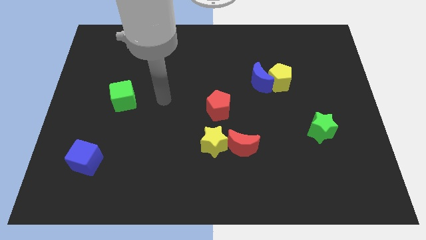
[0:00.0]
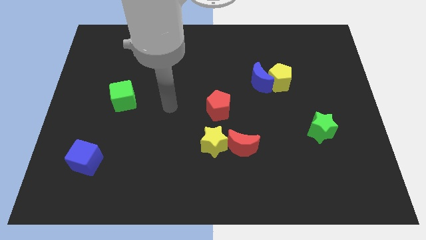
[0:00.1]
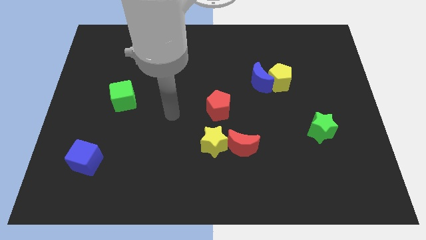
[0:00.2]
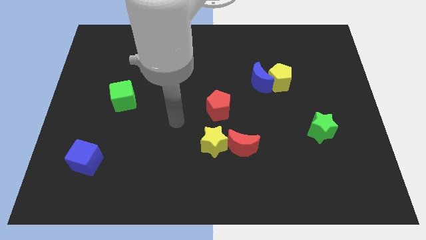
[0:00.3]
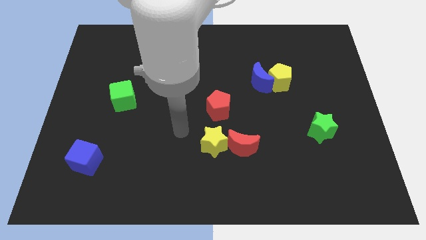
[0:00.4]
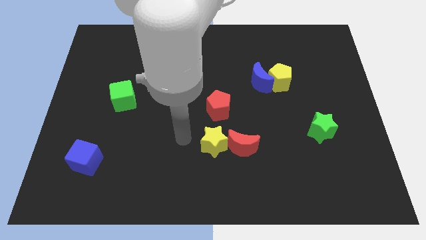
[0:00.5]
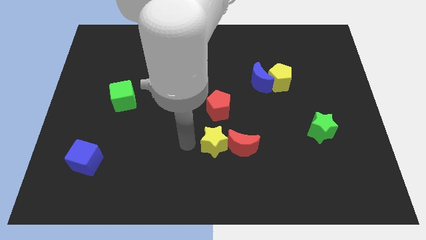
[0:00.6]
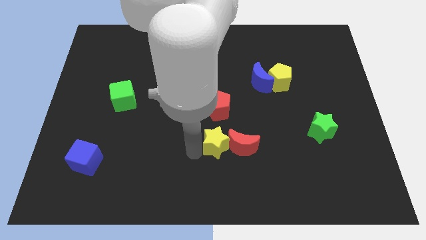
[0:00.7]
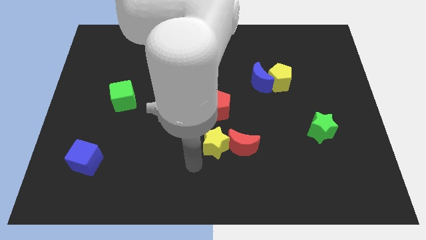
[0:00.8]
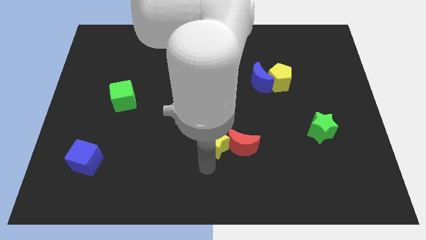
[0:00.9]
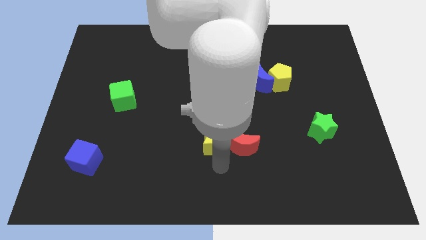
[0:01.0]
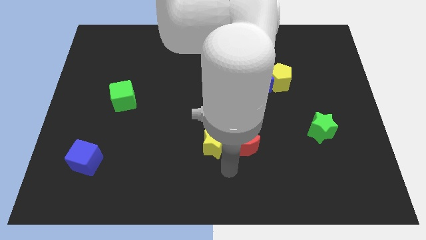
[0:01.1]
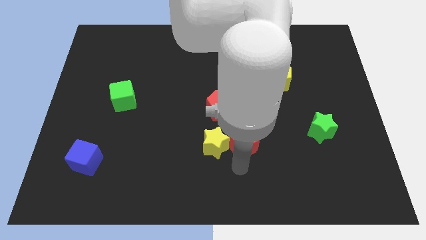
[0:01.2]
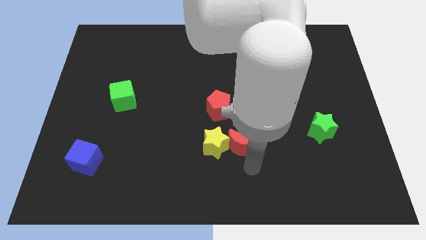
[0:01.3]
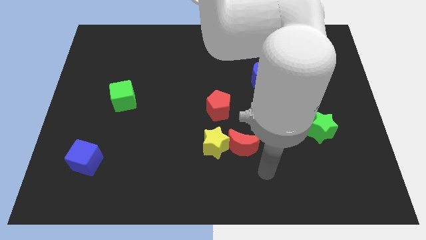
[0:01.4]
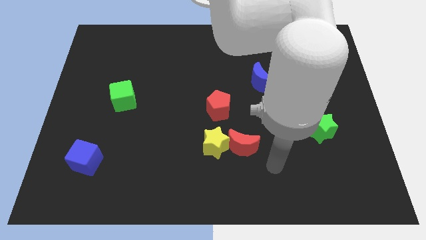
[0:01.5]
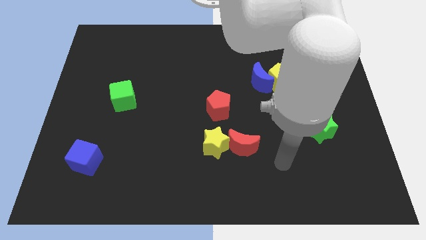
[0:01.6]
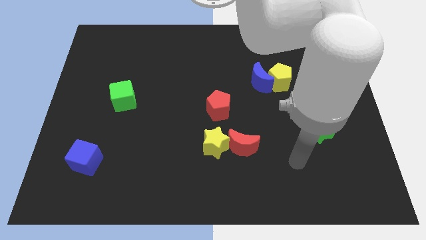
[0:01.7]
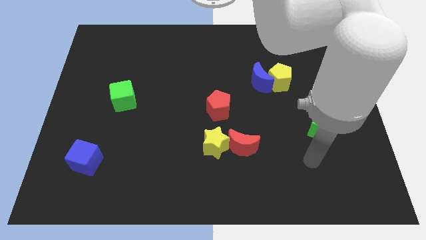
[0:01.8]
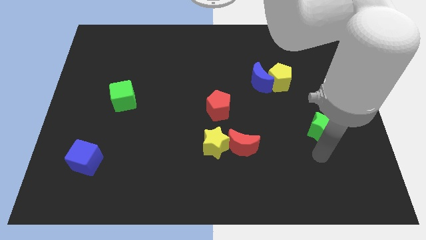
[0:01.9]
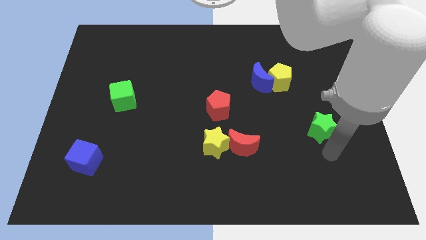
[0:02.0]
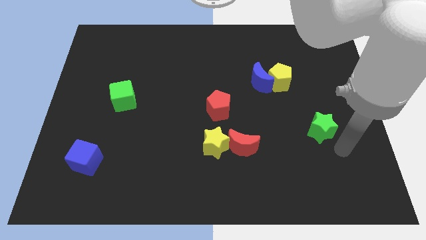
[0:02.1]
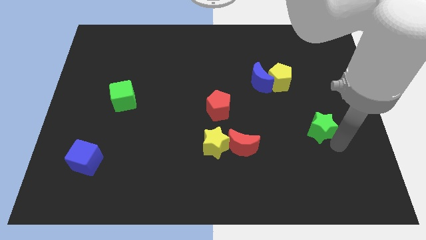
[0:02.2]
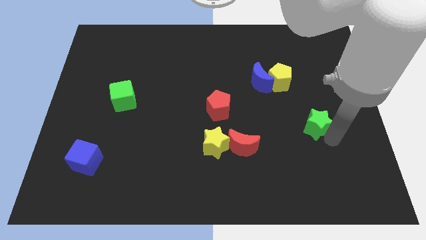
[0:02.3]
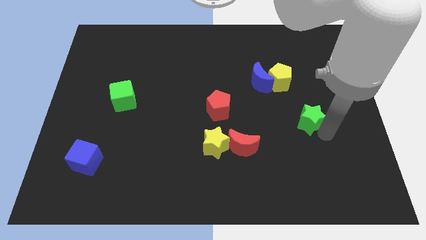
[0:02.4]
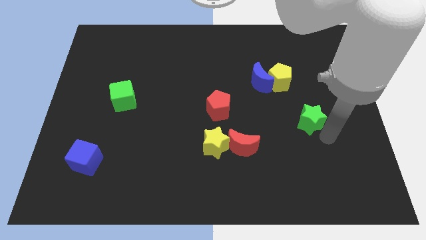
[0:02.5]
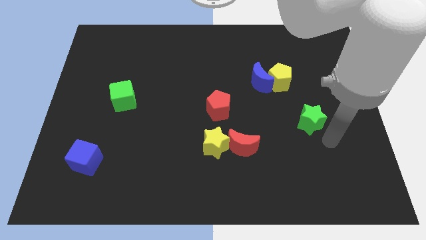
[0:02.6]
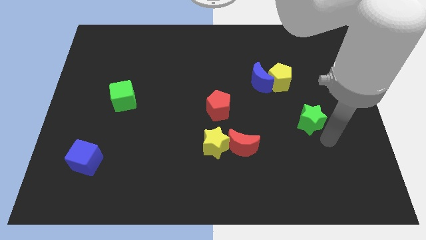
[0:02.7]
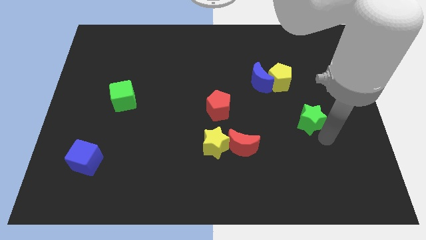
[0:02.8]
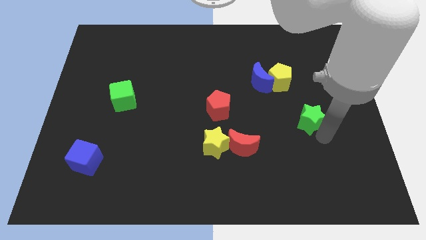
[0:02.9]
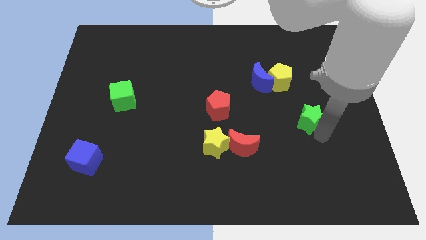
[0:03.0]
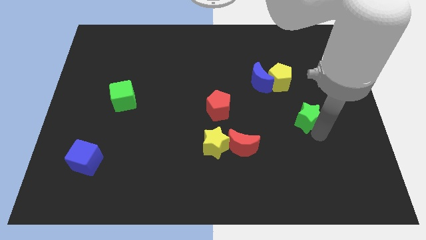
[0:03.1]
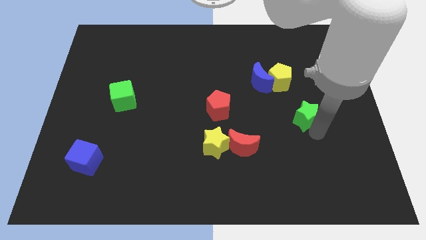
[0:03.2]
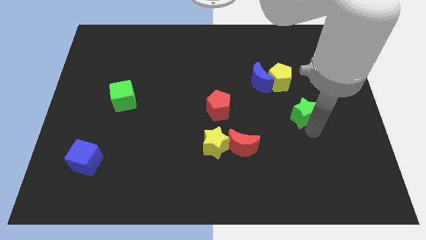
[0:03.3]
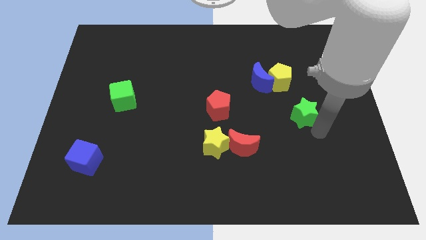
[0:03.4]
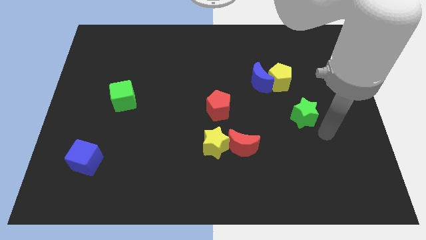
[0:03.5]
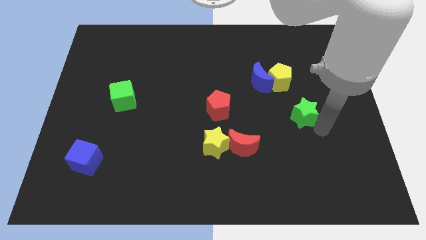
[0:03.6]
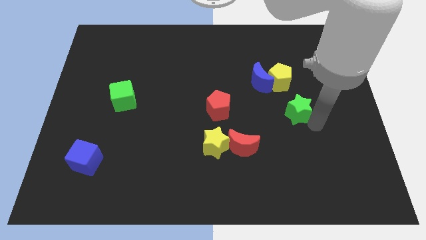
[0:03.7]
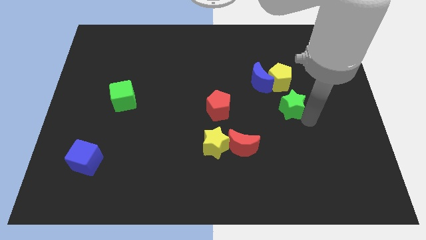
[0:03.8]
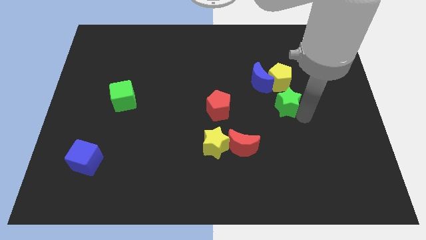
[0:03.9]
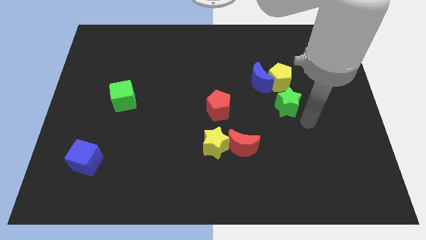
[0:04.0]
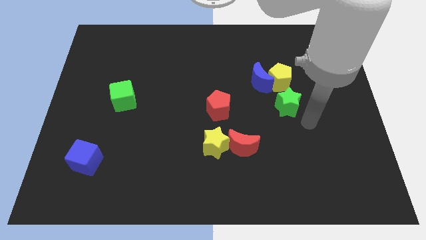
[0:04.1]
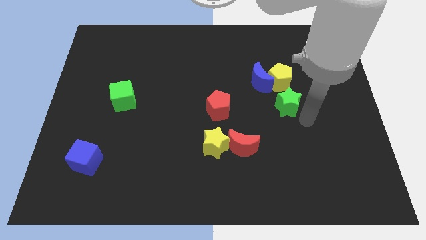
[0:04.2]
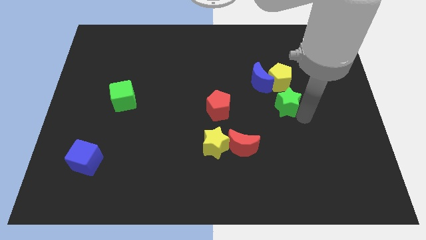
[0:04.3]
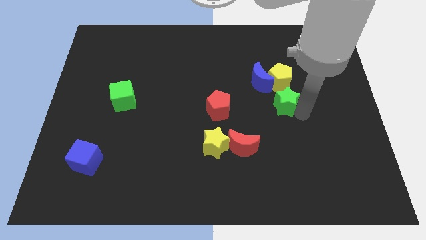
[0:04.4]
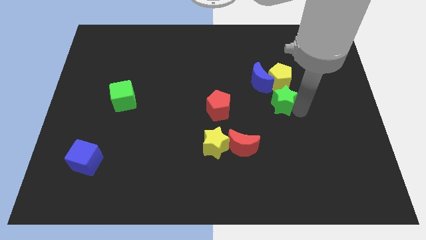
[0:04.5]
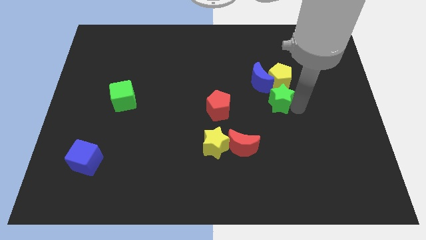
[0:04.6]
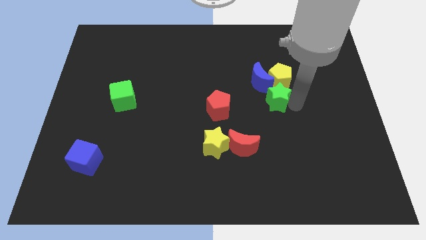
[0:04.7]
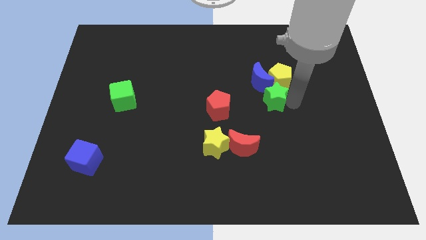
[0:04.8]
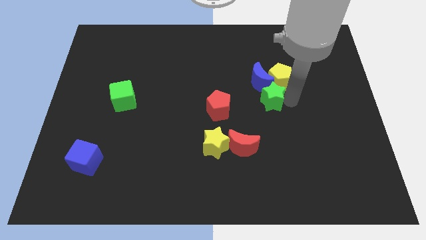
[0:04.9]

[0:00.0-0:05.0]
move the green star to the blue moon

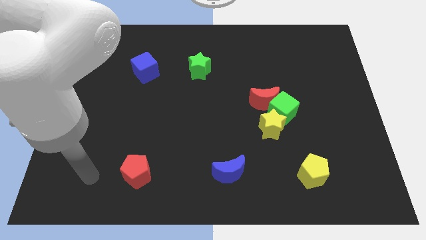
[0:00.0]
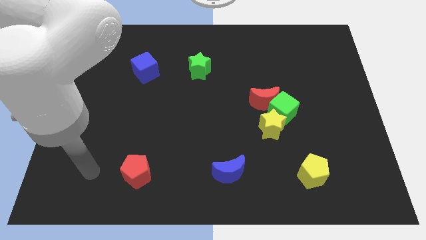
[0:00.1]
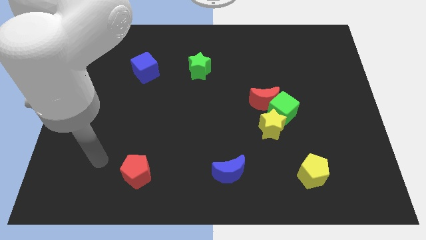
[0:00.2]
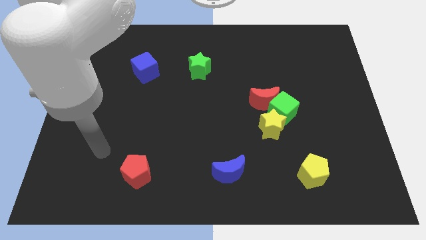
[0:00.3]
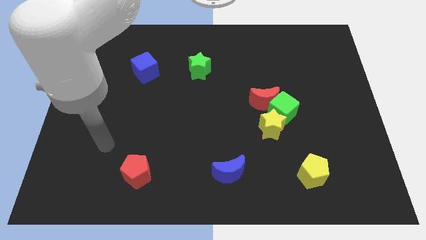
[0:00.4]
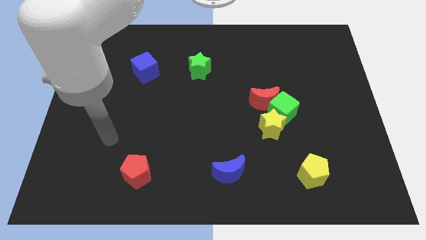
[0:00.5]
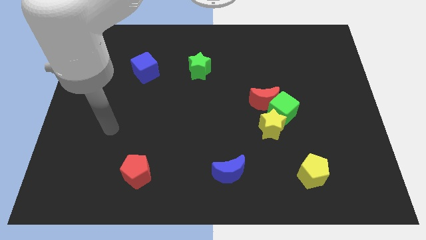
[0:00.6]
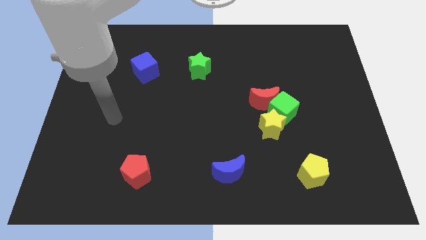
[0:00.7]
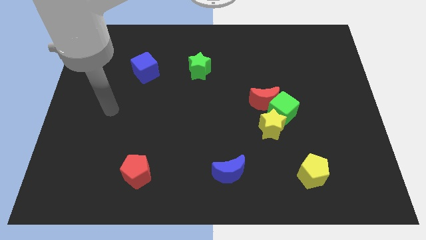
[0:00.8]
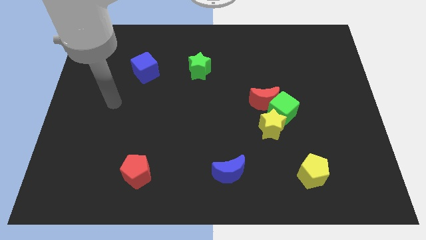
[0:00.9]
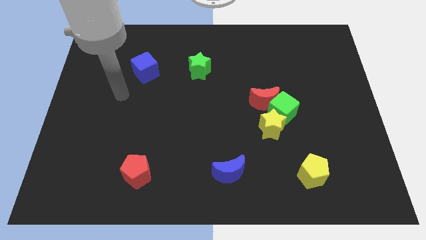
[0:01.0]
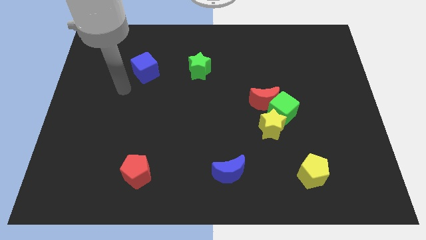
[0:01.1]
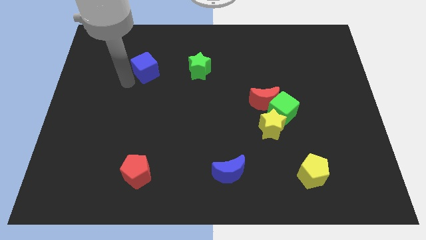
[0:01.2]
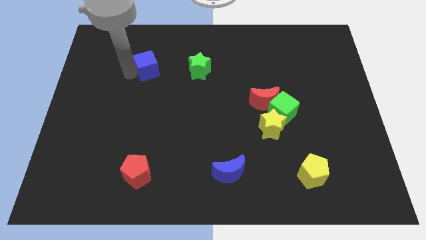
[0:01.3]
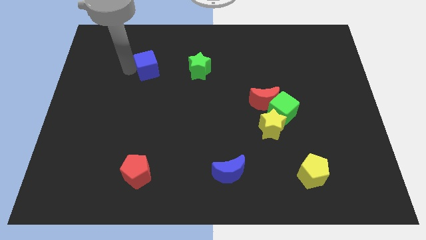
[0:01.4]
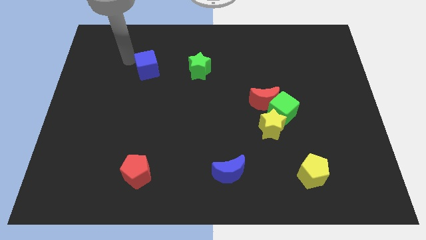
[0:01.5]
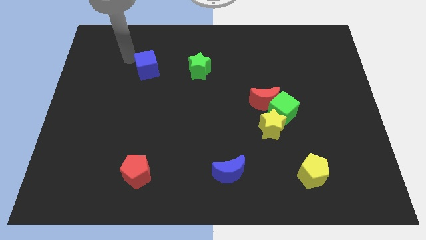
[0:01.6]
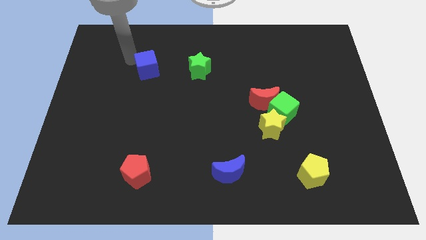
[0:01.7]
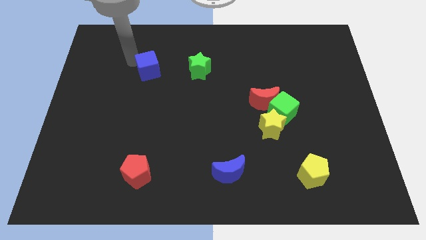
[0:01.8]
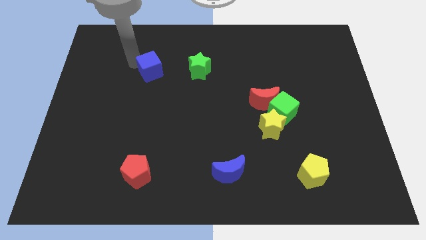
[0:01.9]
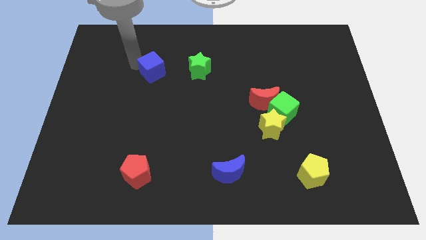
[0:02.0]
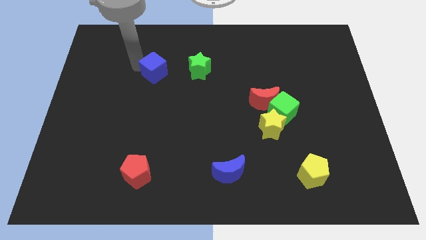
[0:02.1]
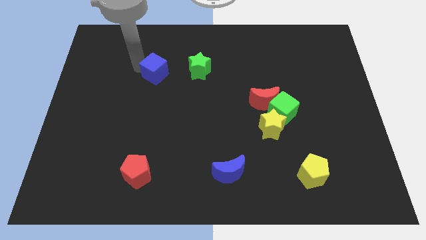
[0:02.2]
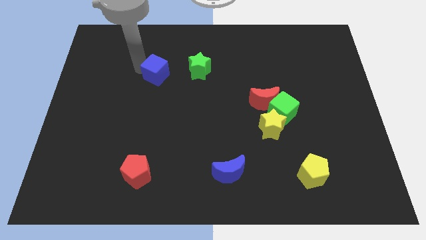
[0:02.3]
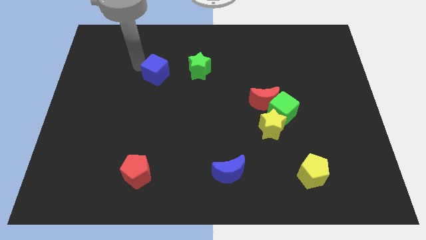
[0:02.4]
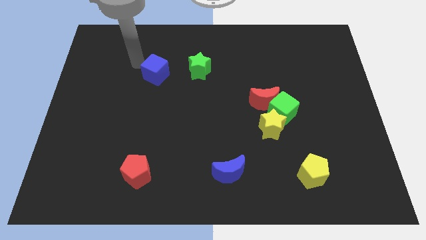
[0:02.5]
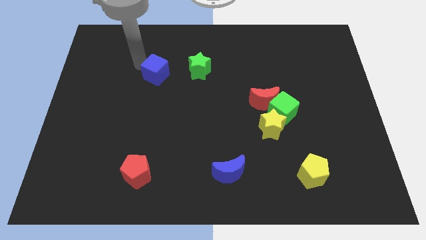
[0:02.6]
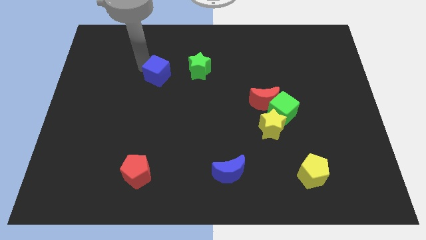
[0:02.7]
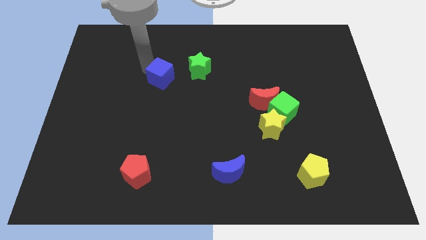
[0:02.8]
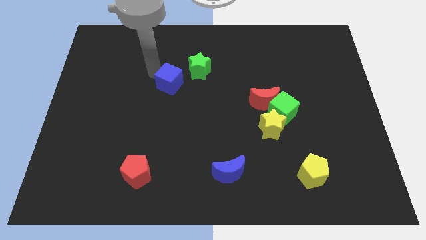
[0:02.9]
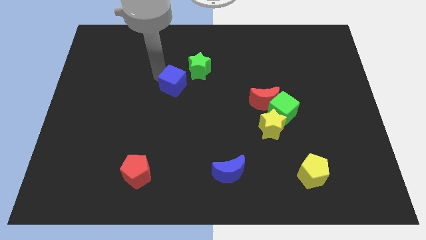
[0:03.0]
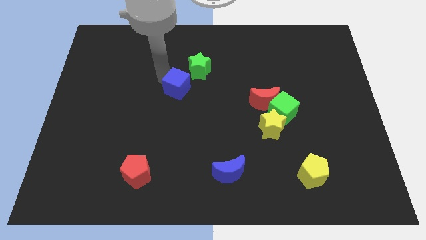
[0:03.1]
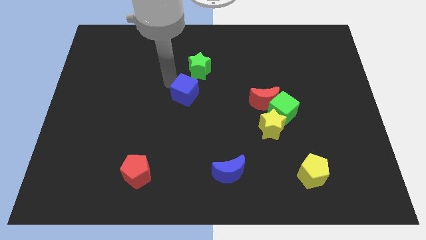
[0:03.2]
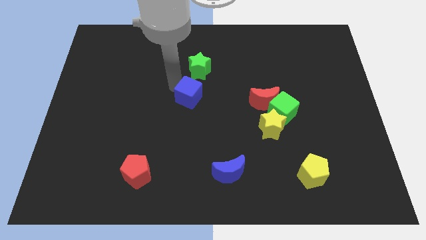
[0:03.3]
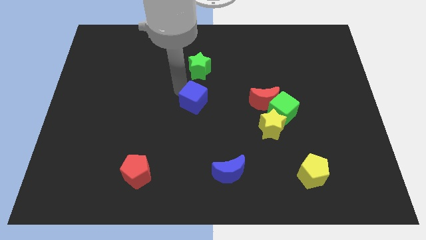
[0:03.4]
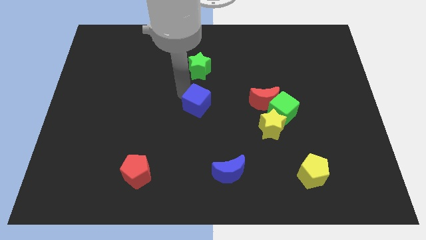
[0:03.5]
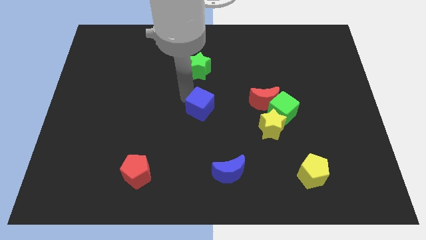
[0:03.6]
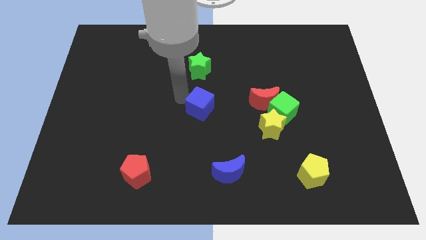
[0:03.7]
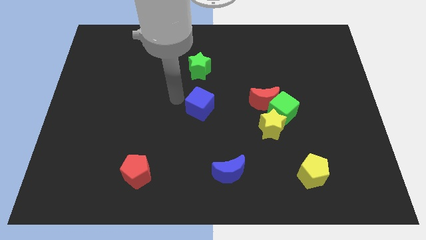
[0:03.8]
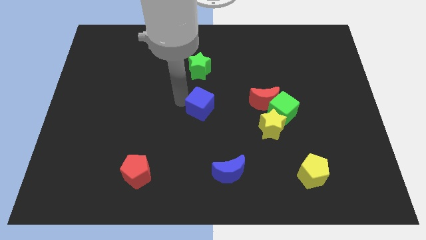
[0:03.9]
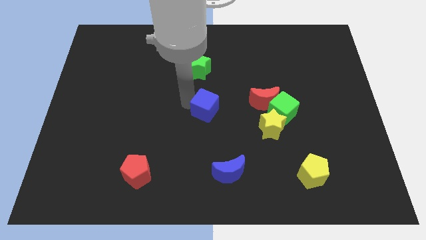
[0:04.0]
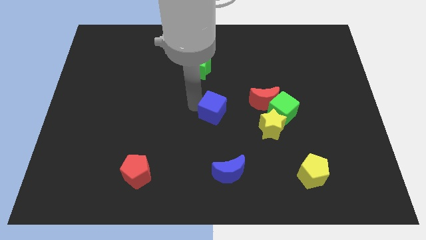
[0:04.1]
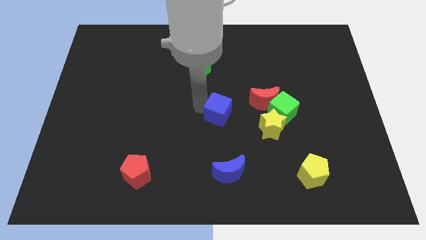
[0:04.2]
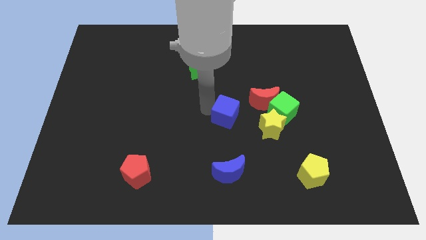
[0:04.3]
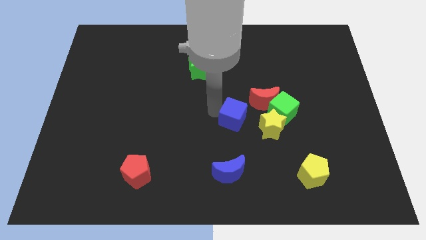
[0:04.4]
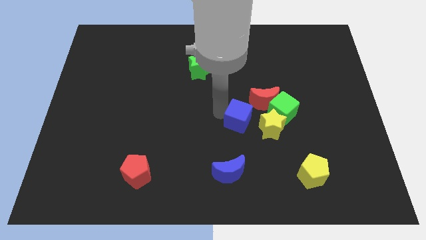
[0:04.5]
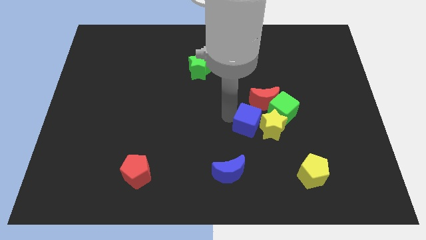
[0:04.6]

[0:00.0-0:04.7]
put the blue cube towards the yellow star
